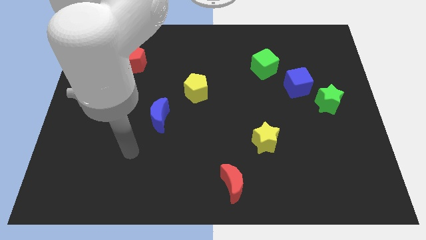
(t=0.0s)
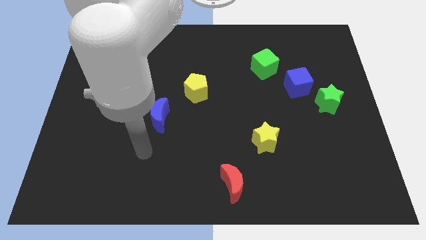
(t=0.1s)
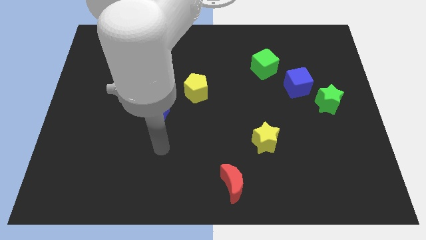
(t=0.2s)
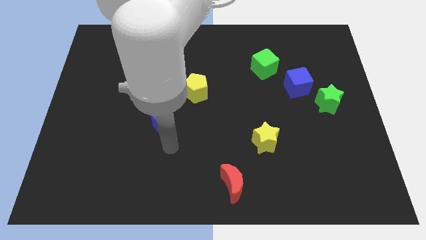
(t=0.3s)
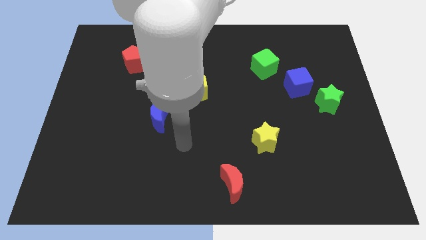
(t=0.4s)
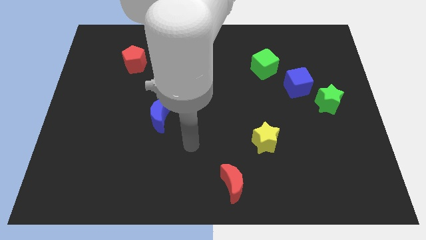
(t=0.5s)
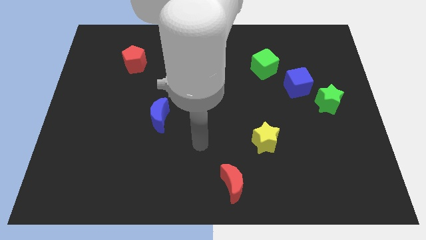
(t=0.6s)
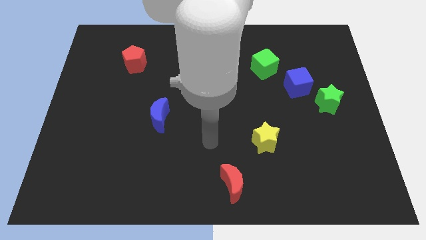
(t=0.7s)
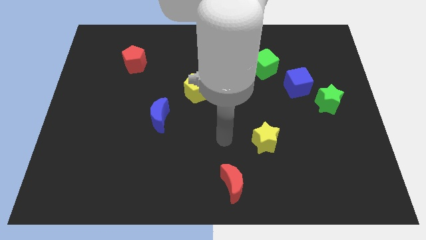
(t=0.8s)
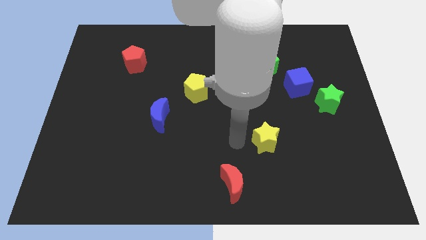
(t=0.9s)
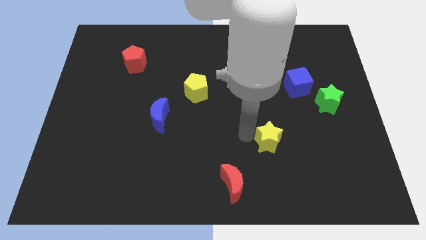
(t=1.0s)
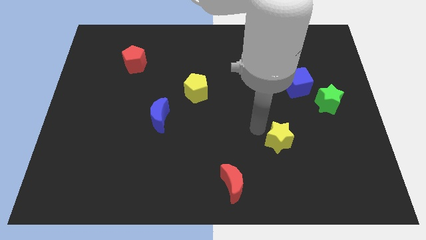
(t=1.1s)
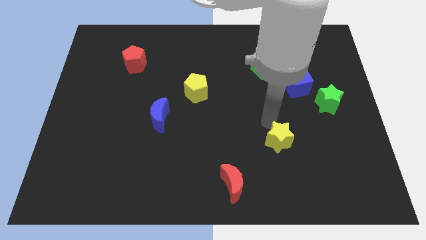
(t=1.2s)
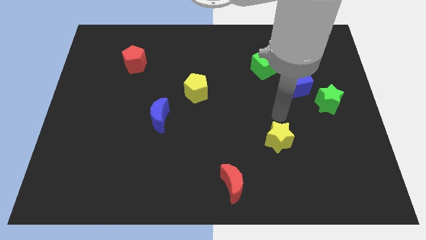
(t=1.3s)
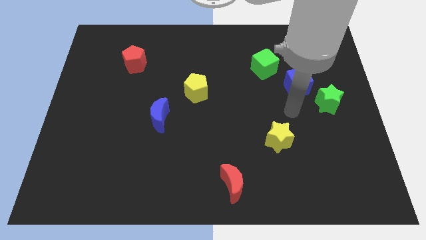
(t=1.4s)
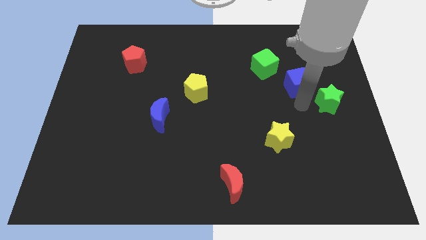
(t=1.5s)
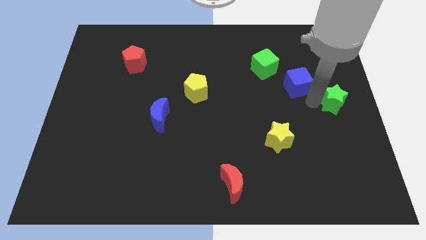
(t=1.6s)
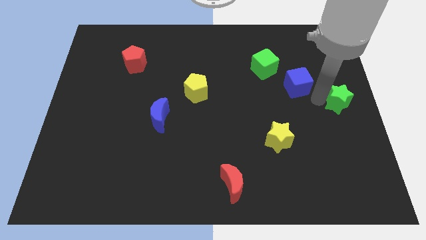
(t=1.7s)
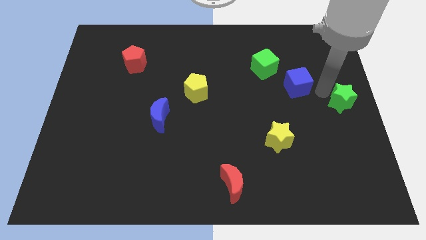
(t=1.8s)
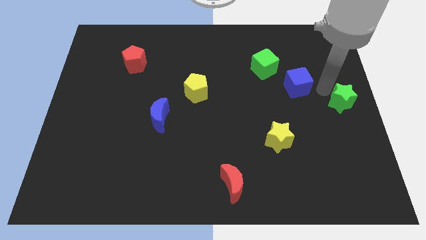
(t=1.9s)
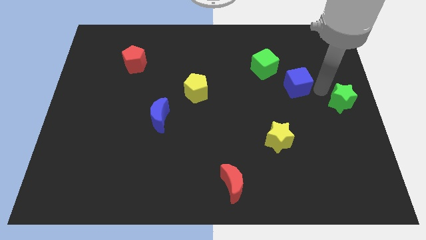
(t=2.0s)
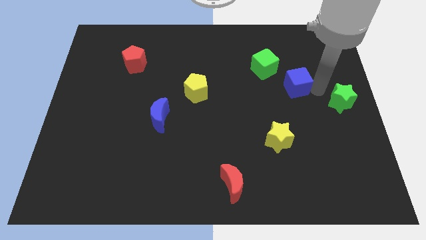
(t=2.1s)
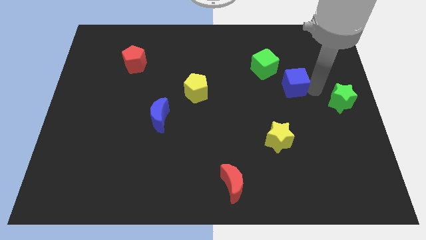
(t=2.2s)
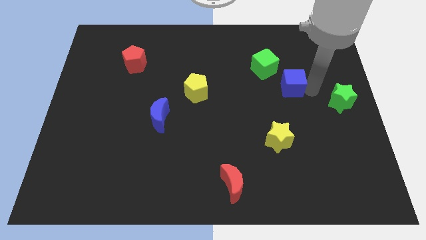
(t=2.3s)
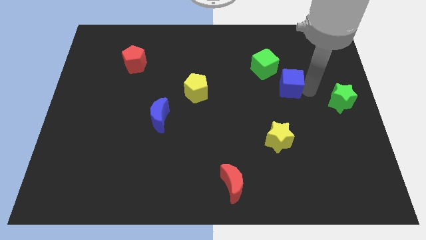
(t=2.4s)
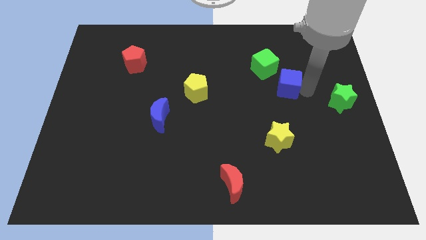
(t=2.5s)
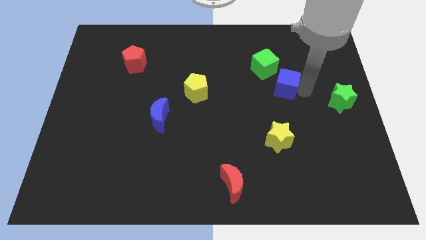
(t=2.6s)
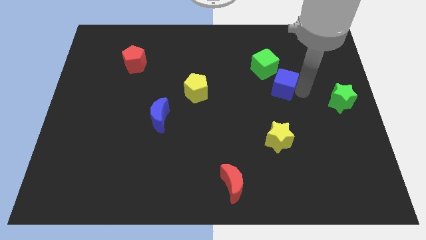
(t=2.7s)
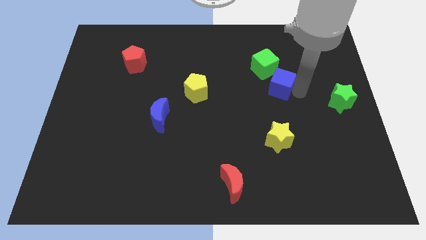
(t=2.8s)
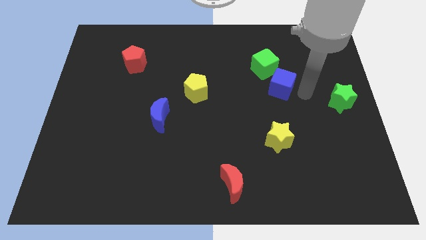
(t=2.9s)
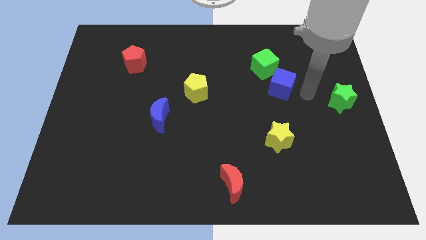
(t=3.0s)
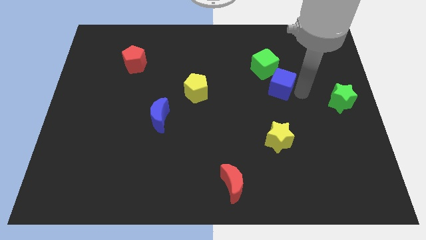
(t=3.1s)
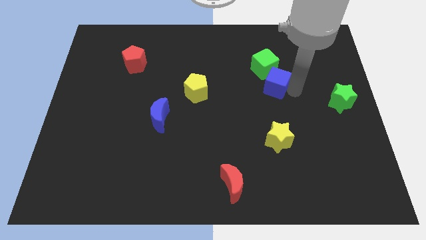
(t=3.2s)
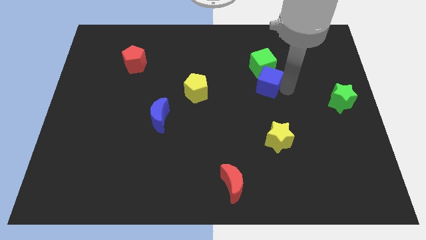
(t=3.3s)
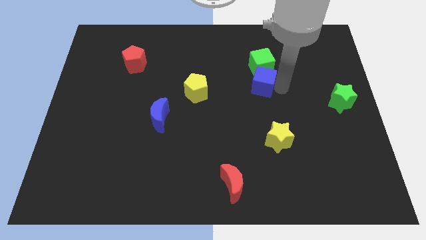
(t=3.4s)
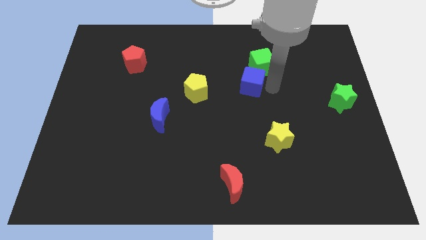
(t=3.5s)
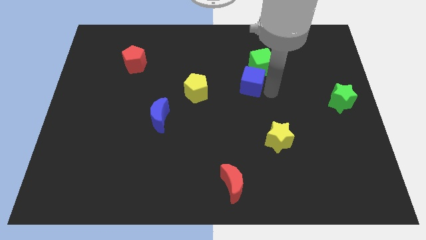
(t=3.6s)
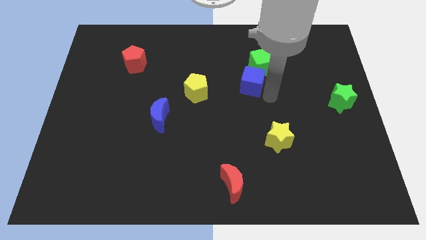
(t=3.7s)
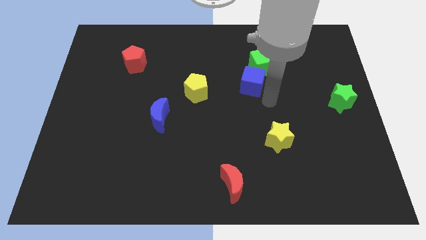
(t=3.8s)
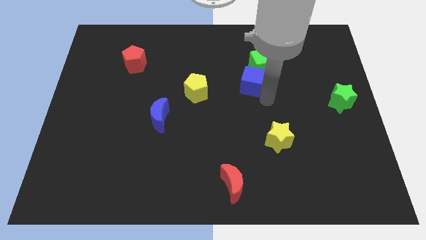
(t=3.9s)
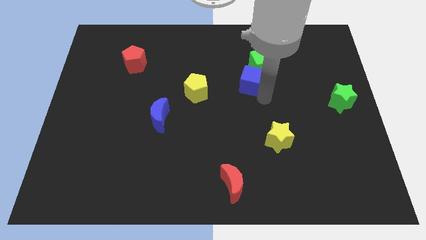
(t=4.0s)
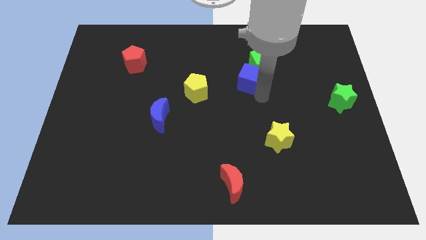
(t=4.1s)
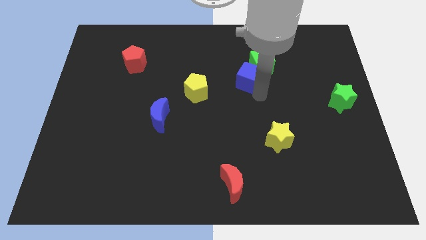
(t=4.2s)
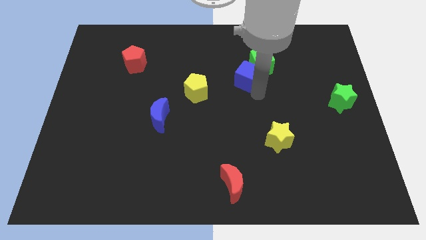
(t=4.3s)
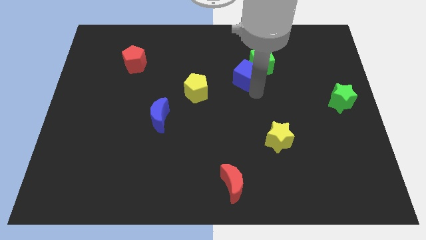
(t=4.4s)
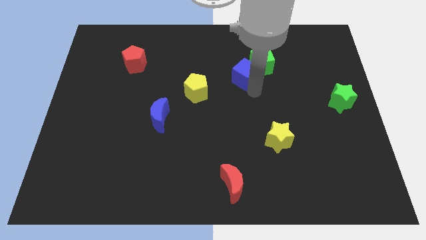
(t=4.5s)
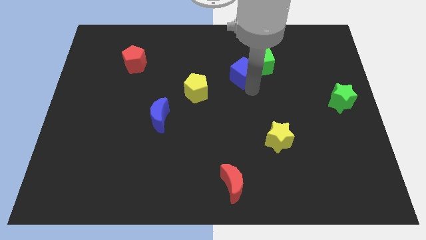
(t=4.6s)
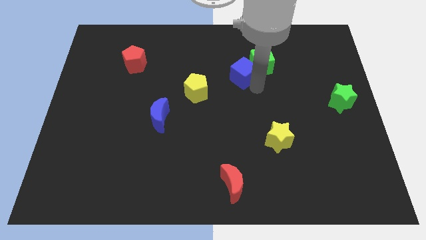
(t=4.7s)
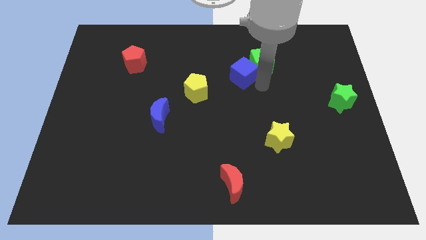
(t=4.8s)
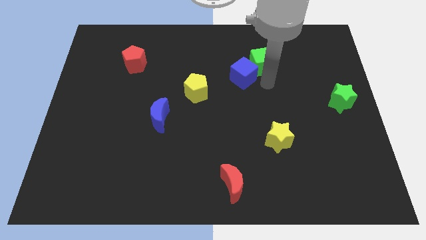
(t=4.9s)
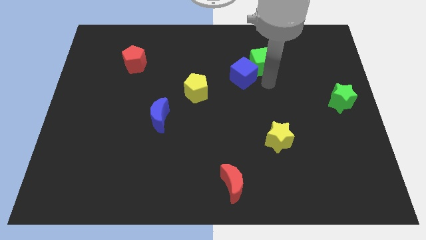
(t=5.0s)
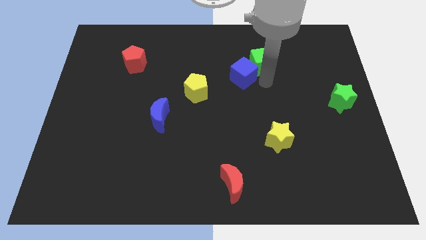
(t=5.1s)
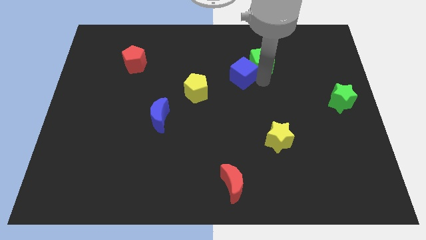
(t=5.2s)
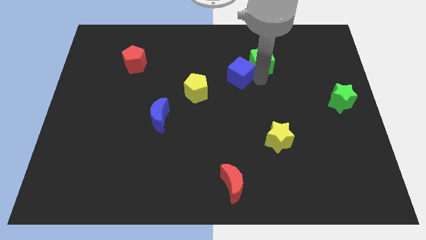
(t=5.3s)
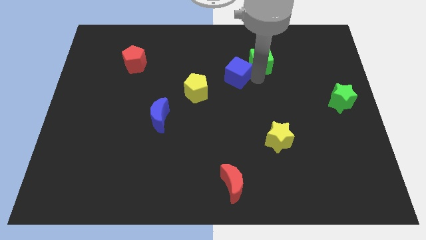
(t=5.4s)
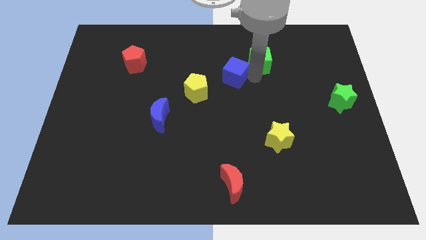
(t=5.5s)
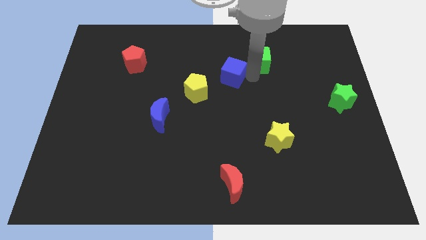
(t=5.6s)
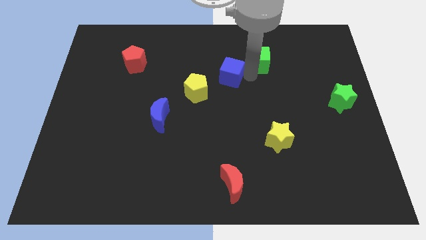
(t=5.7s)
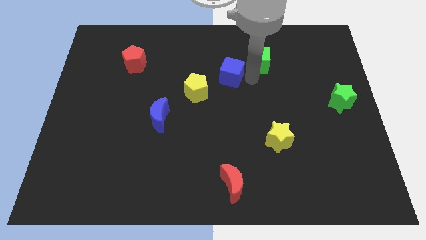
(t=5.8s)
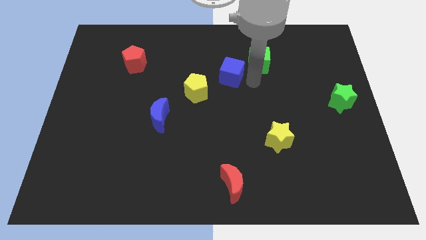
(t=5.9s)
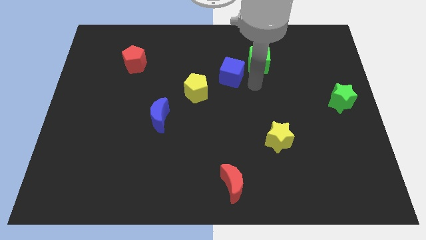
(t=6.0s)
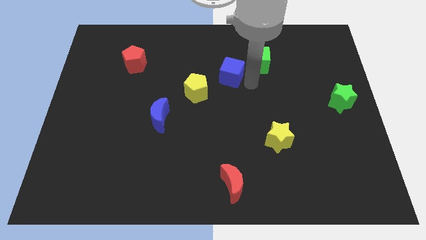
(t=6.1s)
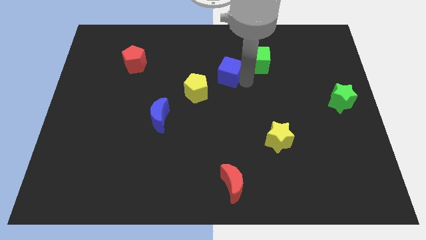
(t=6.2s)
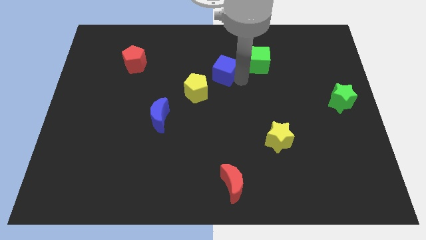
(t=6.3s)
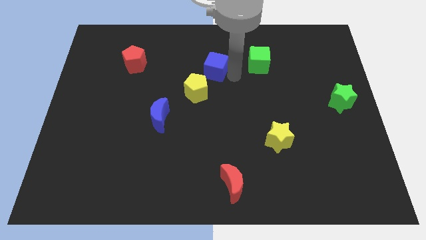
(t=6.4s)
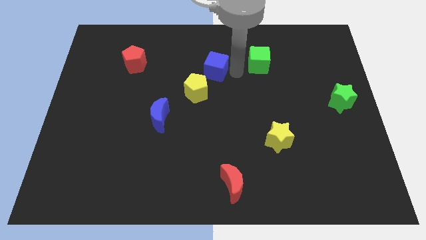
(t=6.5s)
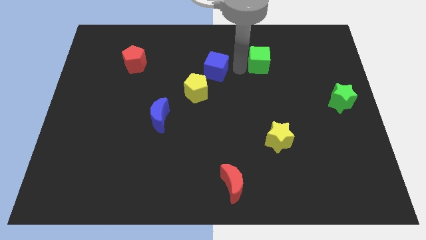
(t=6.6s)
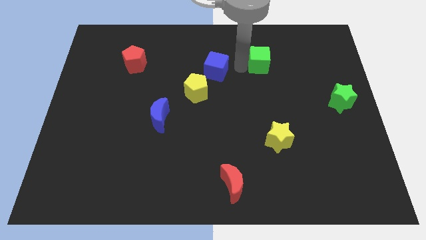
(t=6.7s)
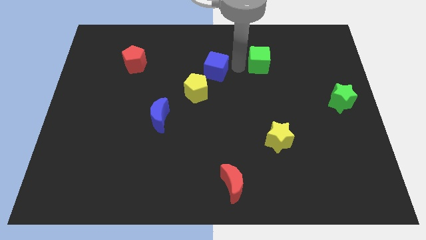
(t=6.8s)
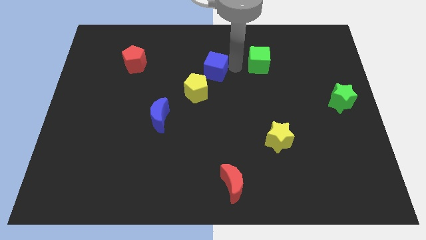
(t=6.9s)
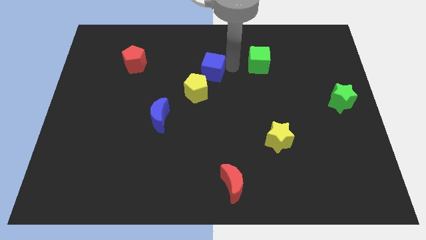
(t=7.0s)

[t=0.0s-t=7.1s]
slide the blue cube to the left

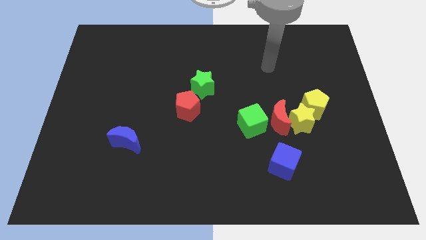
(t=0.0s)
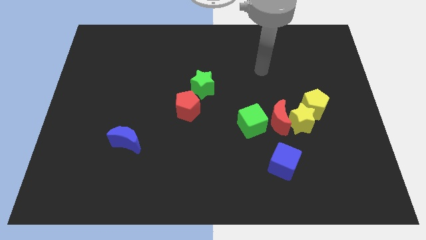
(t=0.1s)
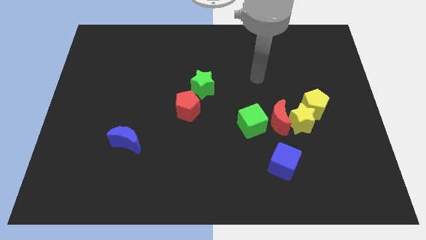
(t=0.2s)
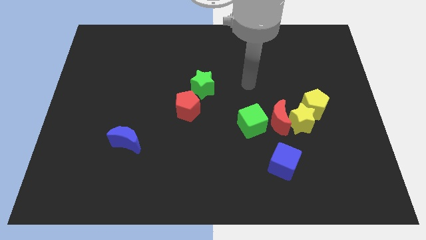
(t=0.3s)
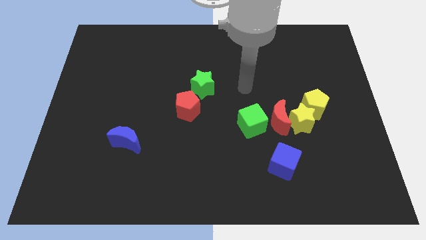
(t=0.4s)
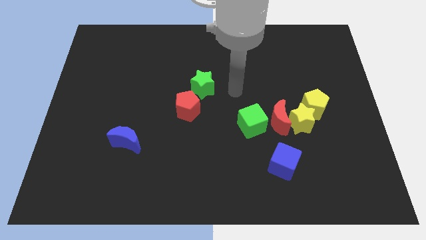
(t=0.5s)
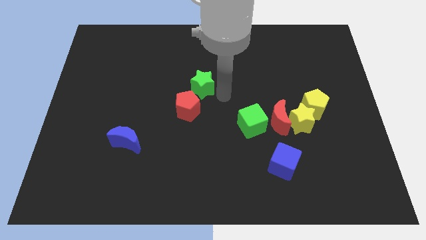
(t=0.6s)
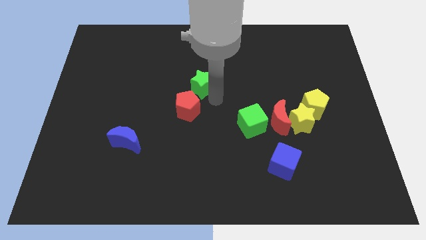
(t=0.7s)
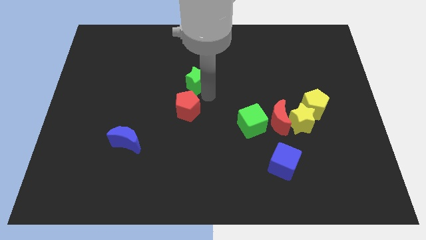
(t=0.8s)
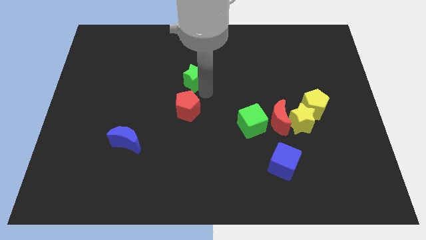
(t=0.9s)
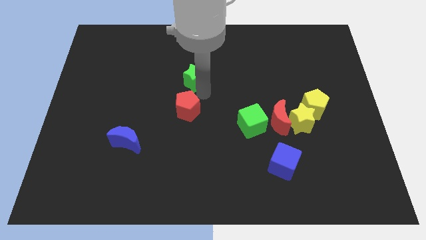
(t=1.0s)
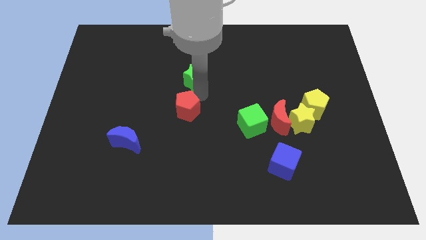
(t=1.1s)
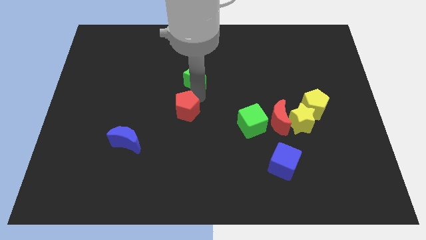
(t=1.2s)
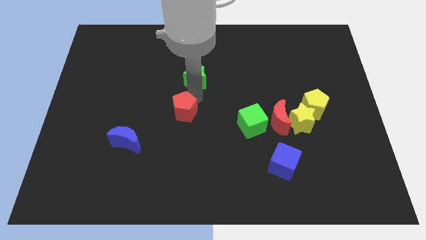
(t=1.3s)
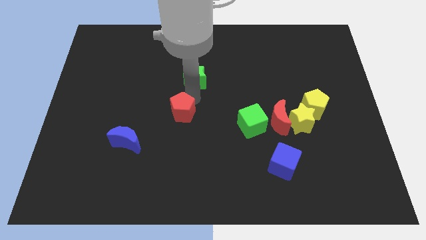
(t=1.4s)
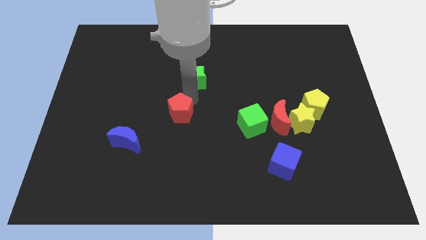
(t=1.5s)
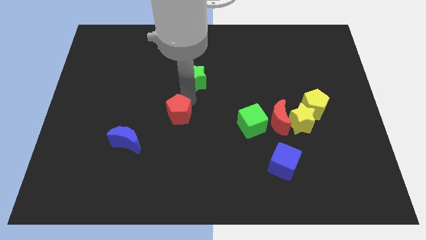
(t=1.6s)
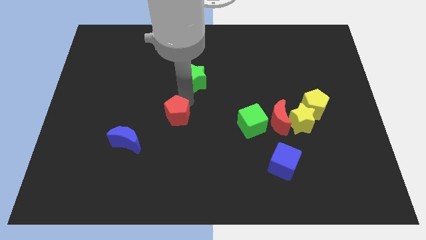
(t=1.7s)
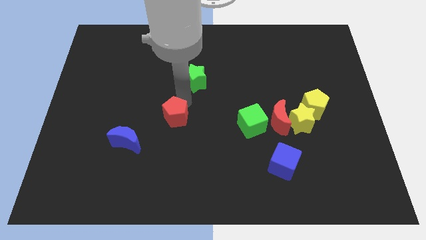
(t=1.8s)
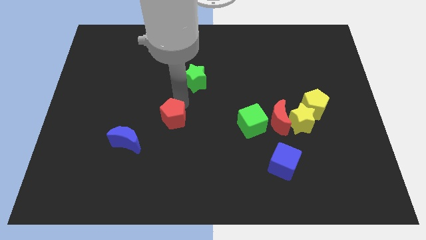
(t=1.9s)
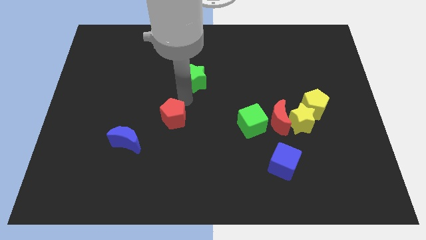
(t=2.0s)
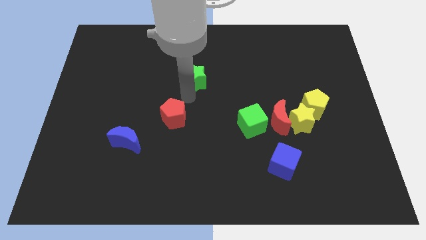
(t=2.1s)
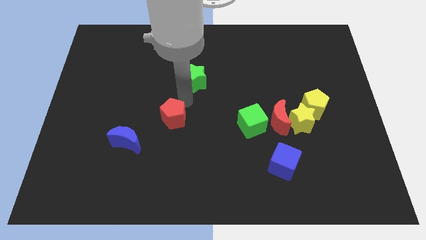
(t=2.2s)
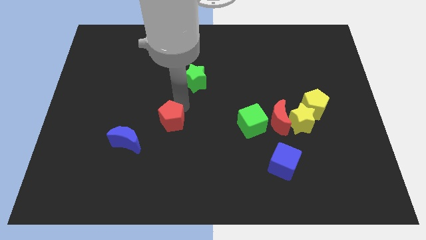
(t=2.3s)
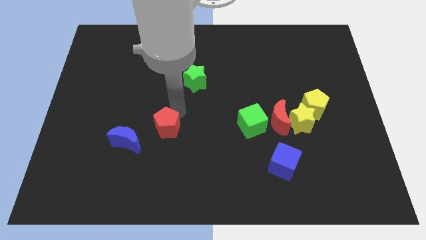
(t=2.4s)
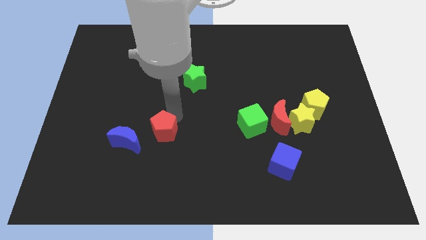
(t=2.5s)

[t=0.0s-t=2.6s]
move the red pentagon a little diagonally downwards and left
